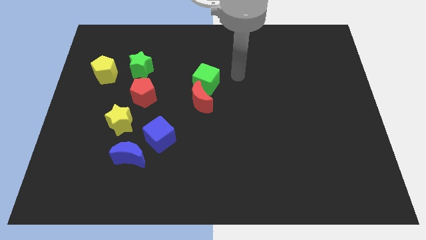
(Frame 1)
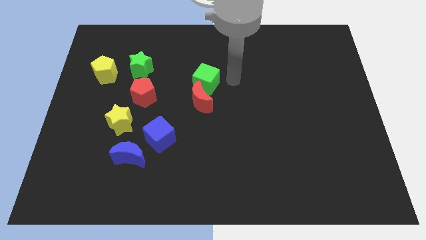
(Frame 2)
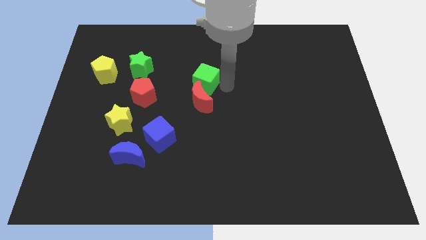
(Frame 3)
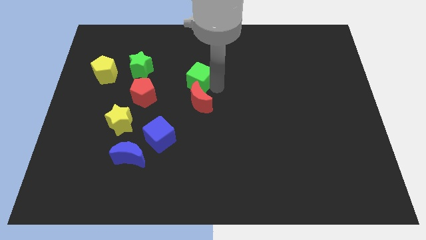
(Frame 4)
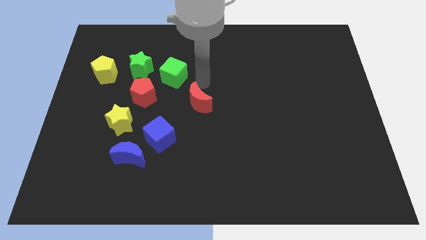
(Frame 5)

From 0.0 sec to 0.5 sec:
separate the red moon from the green cube

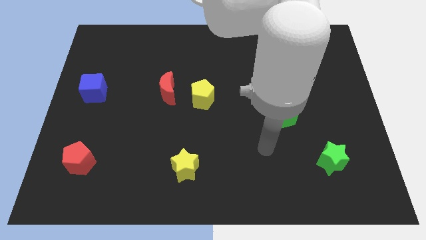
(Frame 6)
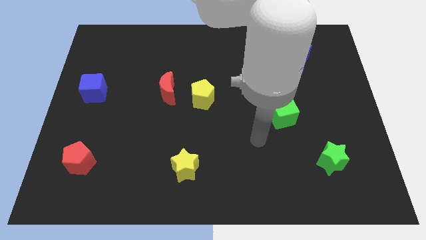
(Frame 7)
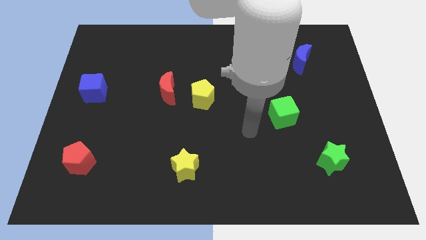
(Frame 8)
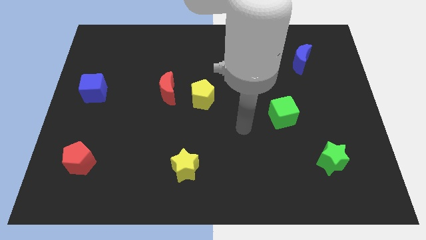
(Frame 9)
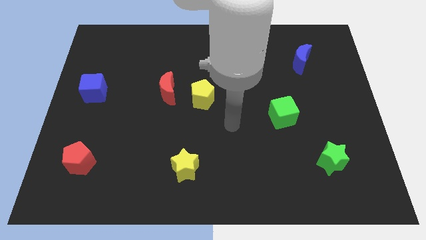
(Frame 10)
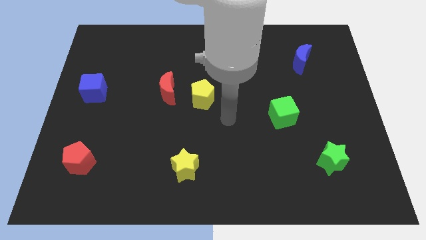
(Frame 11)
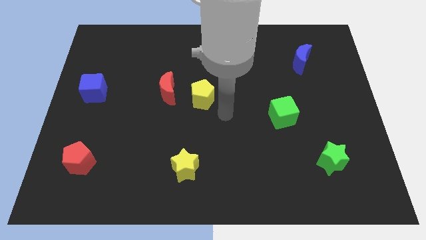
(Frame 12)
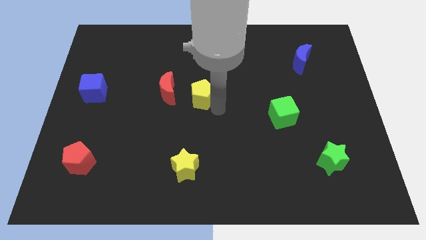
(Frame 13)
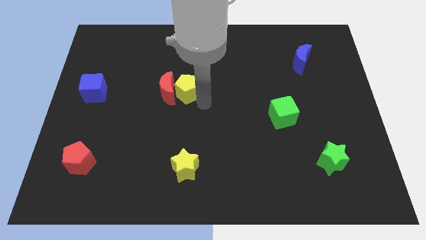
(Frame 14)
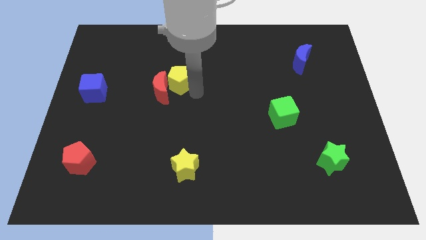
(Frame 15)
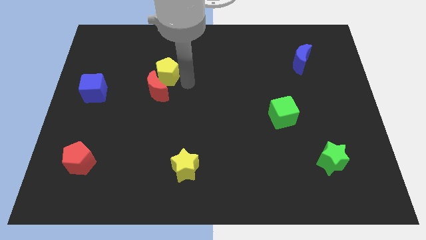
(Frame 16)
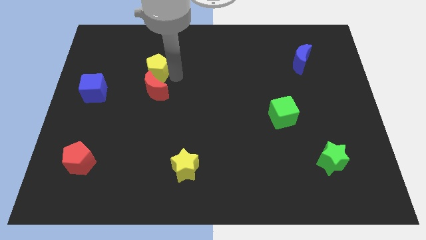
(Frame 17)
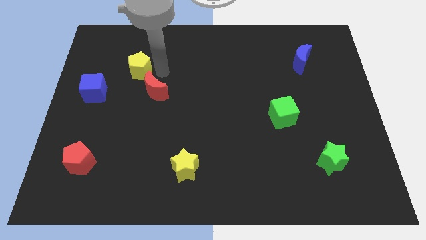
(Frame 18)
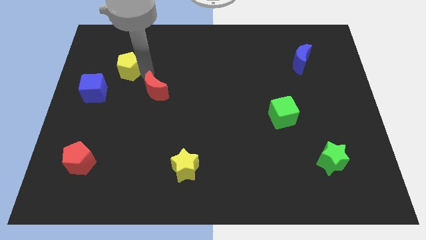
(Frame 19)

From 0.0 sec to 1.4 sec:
separate the red moon from the yellow pentagon

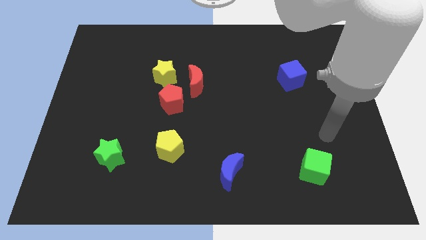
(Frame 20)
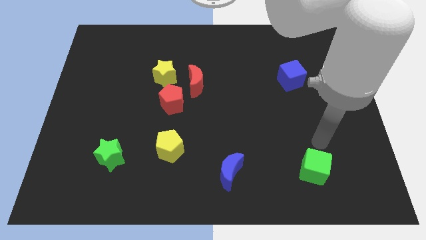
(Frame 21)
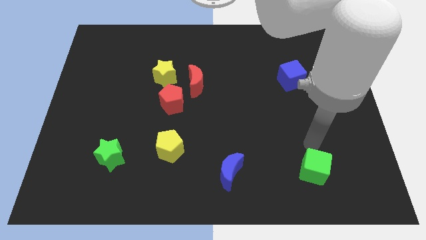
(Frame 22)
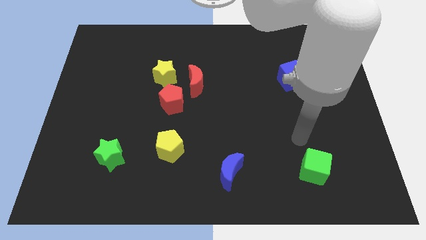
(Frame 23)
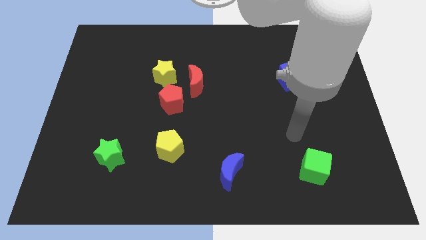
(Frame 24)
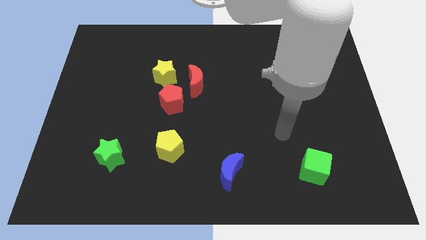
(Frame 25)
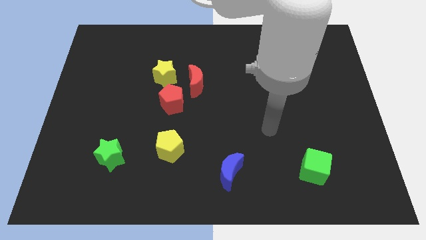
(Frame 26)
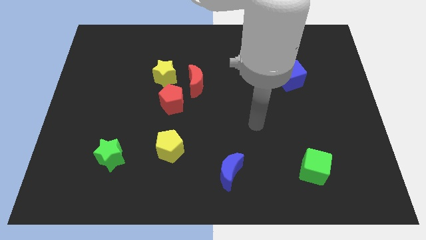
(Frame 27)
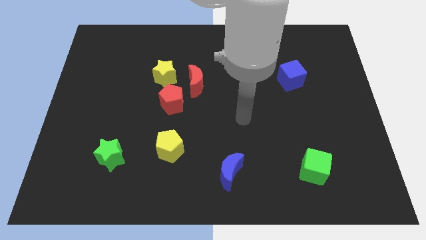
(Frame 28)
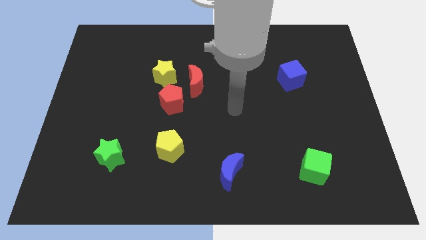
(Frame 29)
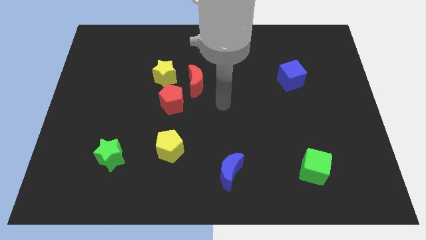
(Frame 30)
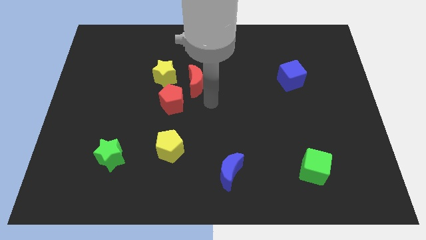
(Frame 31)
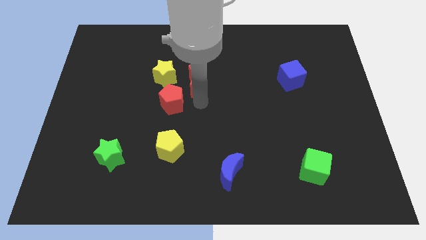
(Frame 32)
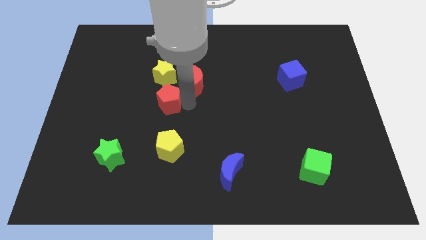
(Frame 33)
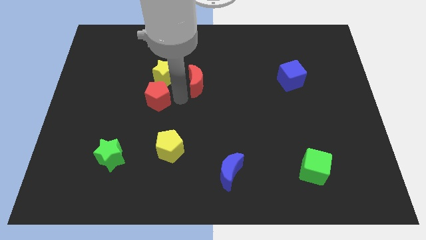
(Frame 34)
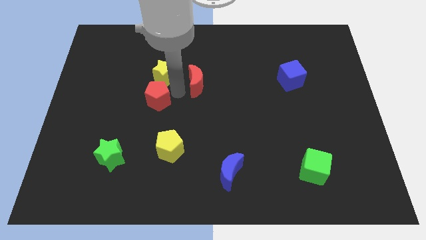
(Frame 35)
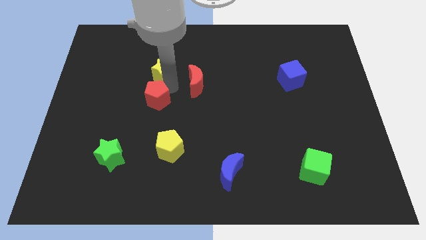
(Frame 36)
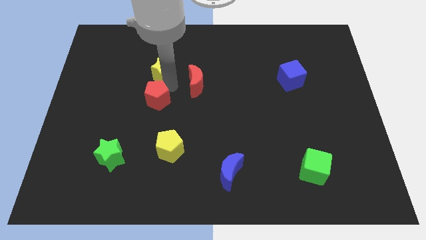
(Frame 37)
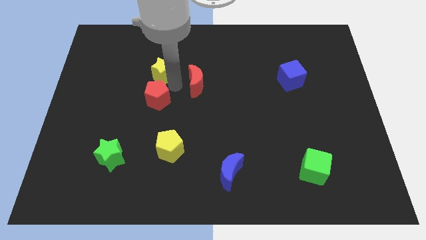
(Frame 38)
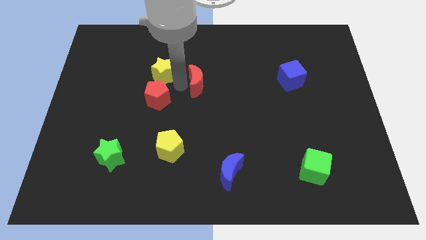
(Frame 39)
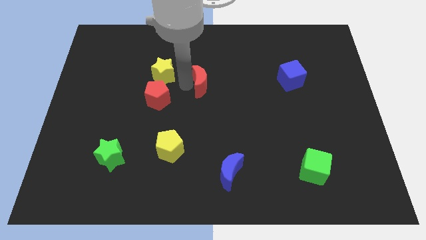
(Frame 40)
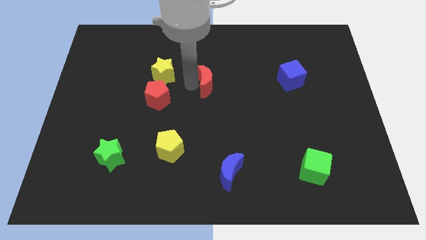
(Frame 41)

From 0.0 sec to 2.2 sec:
separate the red moon from the yellow star and red pentagon

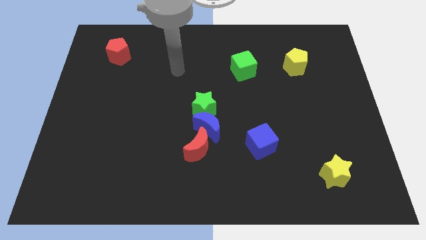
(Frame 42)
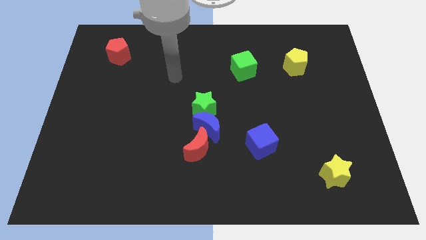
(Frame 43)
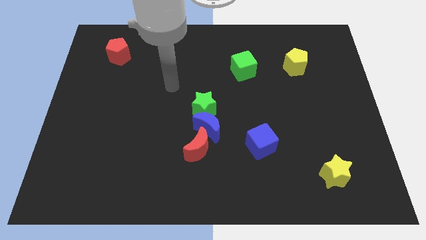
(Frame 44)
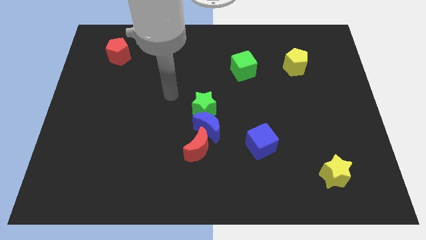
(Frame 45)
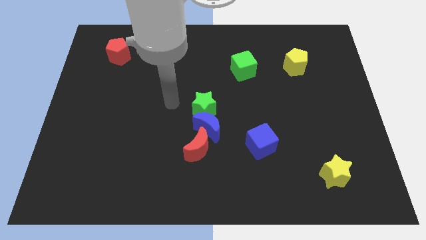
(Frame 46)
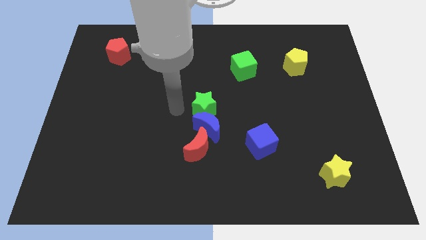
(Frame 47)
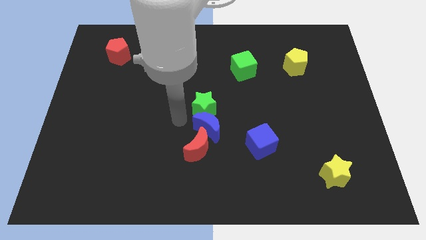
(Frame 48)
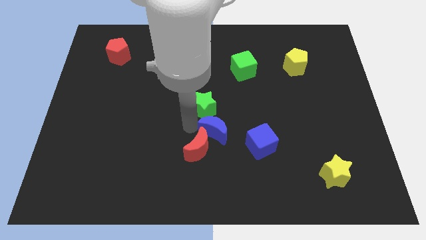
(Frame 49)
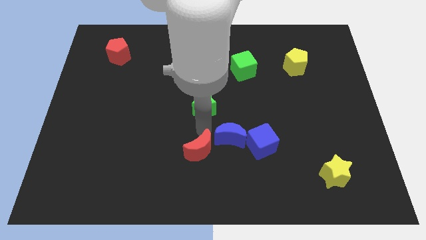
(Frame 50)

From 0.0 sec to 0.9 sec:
pull the green star apart from the blue moon

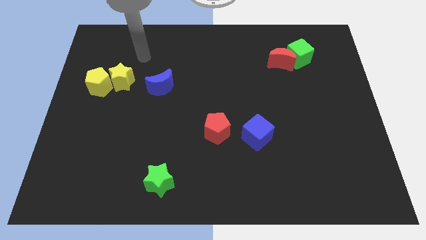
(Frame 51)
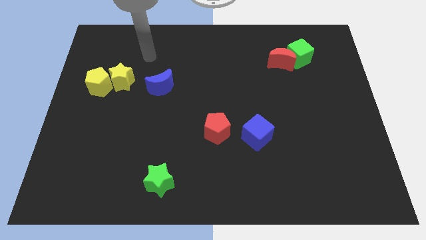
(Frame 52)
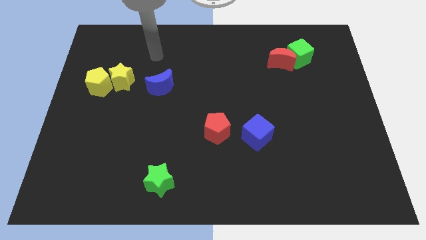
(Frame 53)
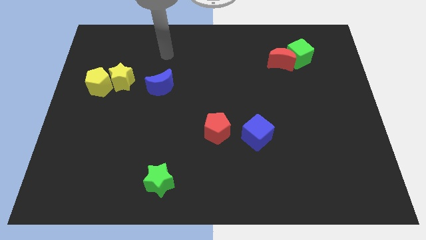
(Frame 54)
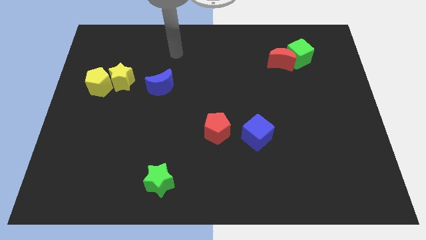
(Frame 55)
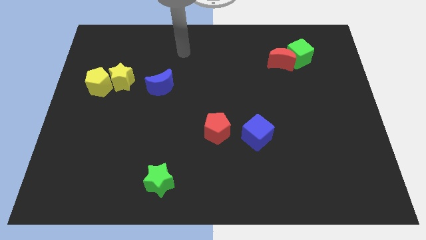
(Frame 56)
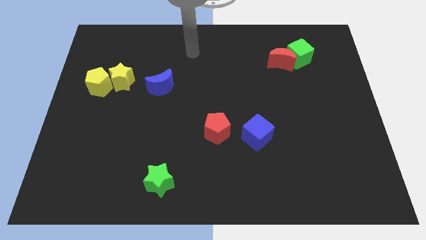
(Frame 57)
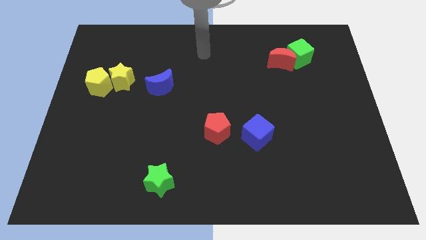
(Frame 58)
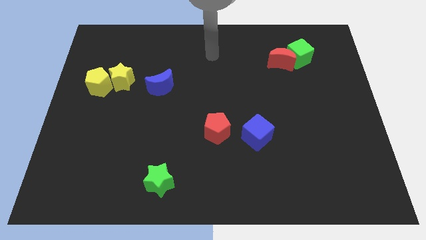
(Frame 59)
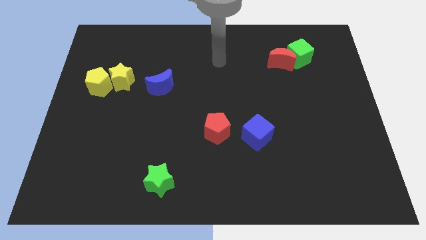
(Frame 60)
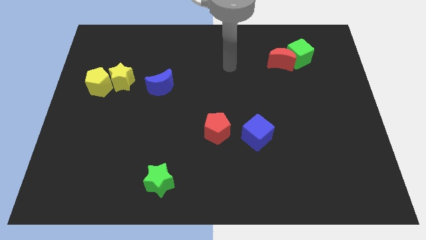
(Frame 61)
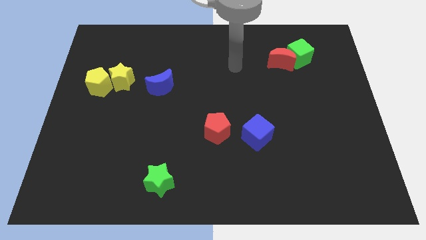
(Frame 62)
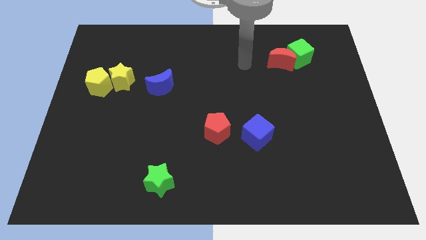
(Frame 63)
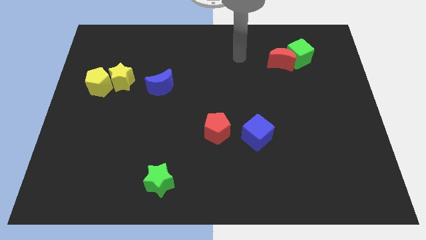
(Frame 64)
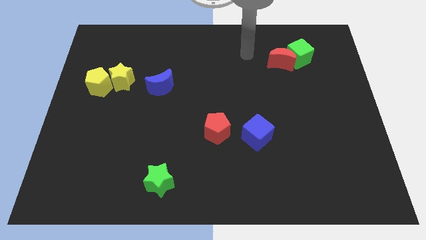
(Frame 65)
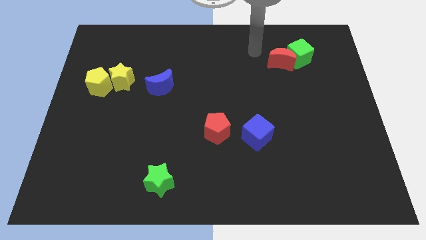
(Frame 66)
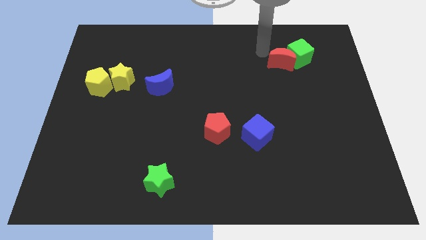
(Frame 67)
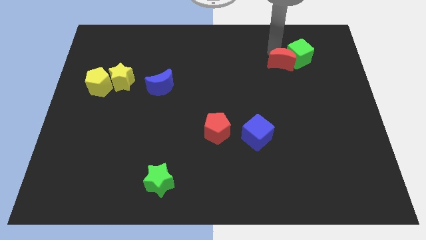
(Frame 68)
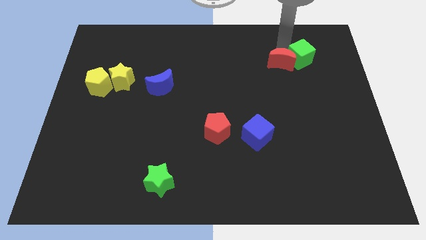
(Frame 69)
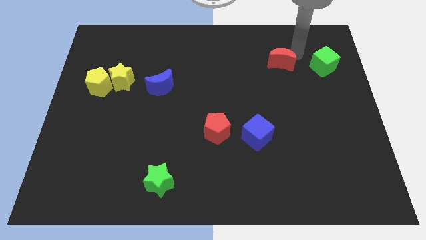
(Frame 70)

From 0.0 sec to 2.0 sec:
move the red moon away from the green cube

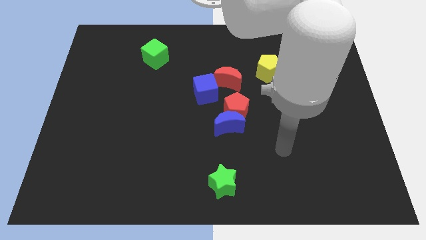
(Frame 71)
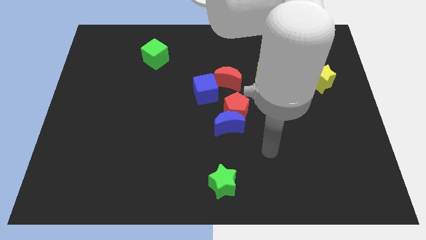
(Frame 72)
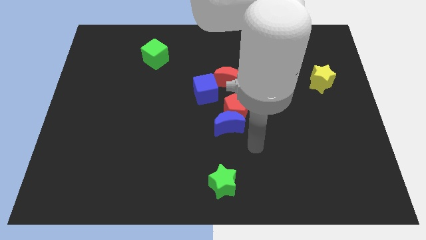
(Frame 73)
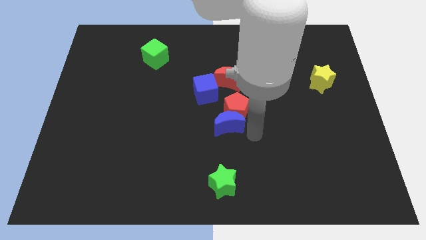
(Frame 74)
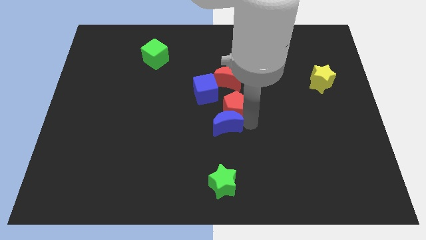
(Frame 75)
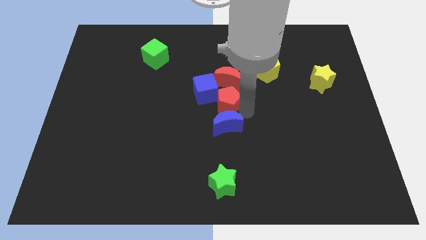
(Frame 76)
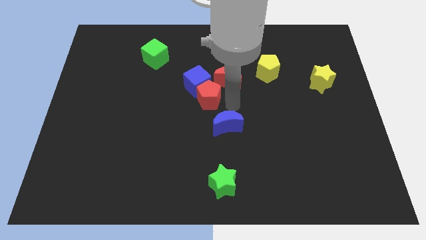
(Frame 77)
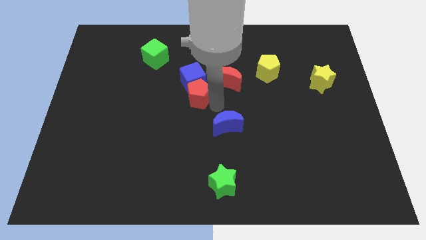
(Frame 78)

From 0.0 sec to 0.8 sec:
pull the blue moon apart from the red pentagon

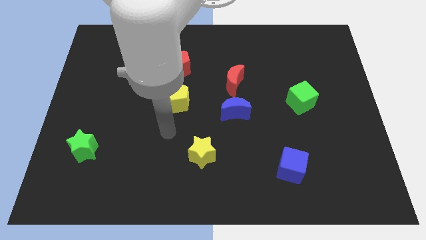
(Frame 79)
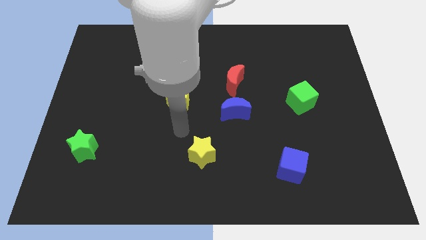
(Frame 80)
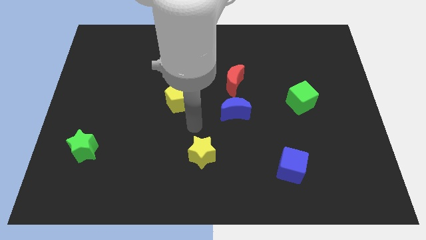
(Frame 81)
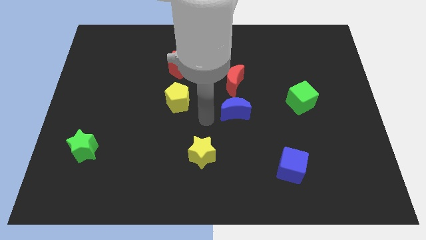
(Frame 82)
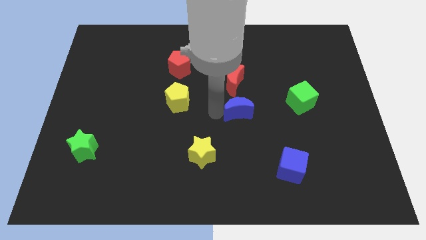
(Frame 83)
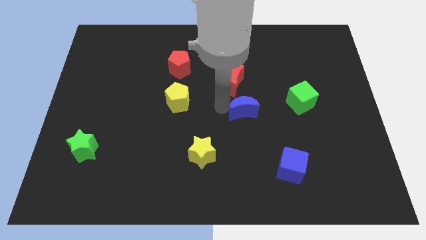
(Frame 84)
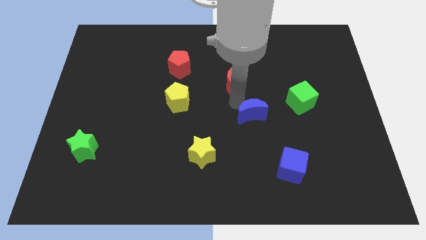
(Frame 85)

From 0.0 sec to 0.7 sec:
separate the red moon from the blue moon

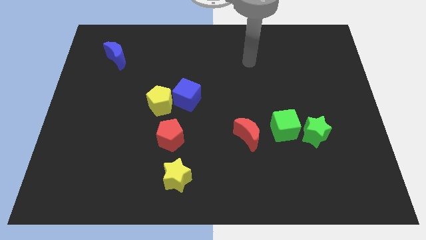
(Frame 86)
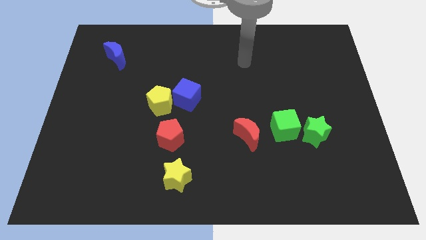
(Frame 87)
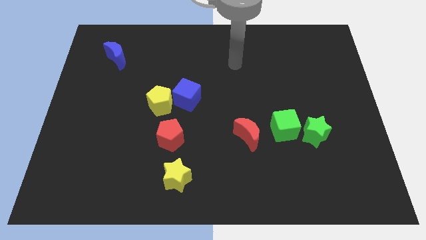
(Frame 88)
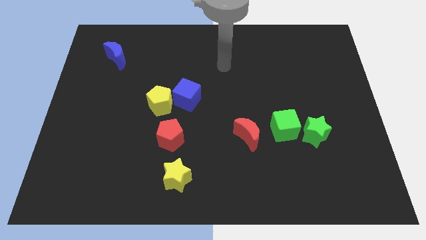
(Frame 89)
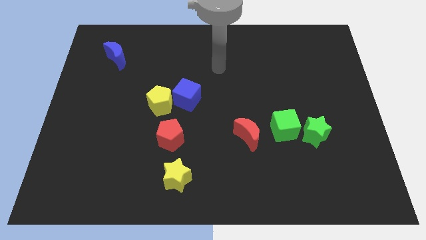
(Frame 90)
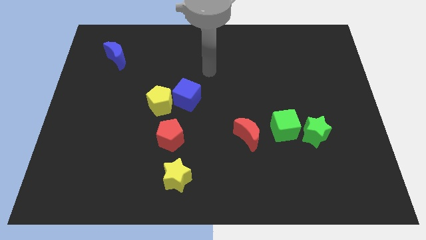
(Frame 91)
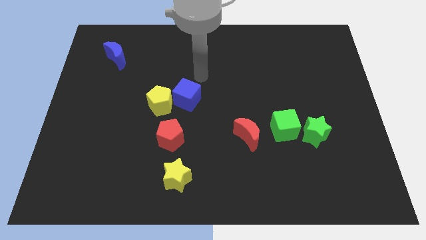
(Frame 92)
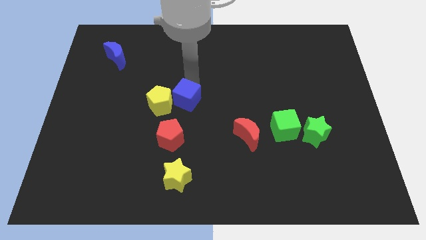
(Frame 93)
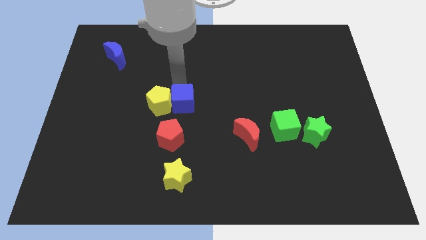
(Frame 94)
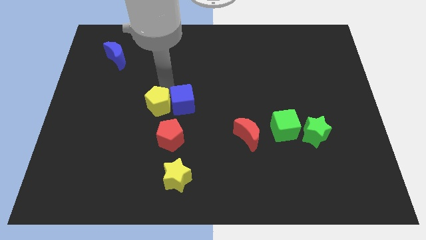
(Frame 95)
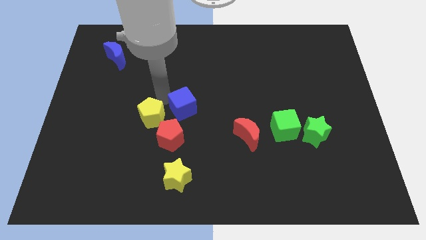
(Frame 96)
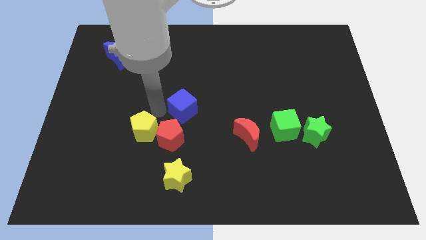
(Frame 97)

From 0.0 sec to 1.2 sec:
move the blue cube away from the yellow pentagon
